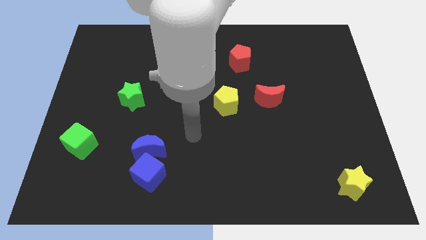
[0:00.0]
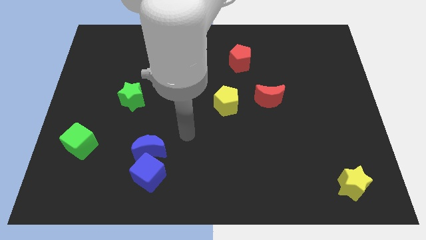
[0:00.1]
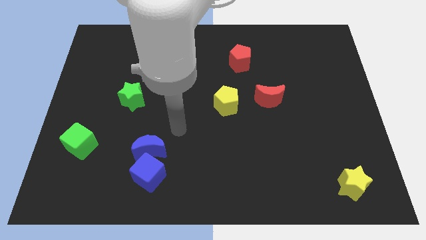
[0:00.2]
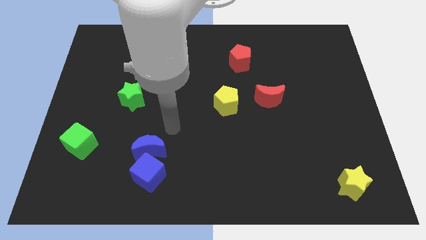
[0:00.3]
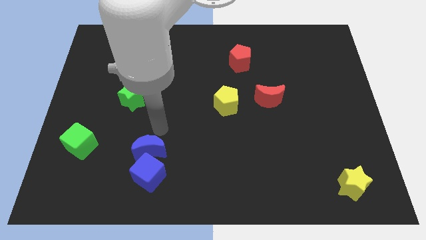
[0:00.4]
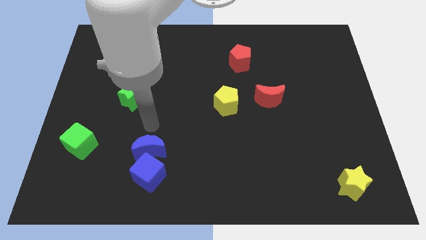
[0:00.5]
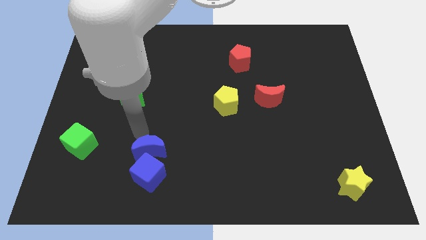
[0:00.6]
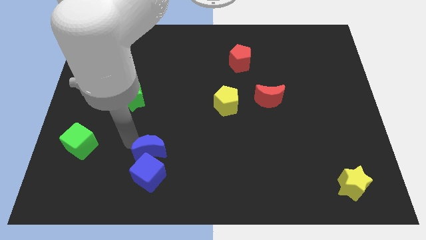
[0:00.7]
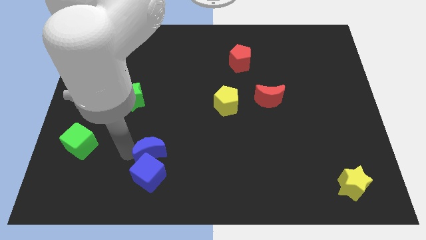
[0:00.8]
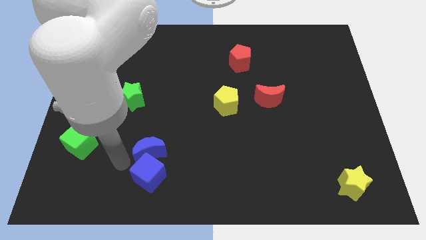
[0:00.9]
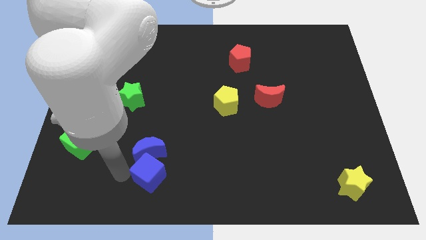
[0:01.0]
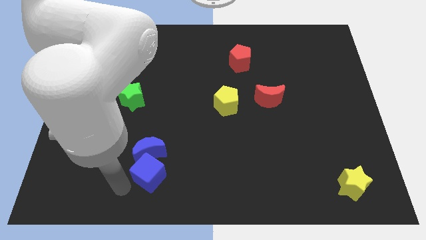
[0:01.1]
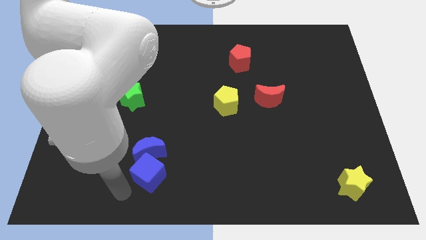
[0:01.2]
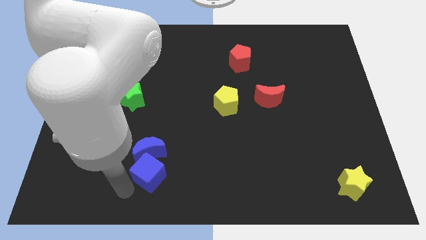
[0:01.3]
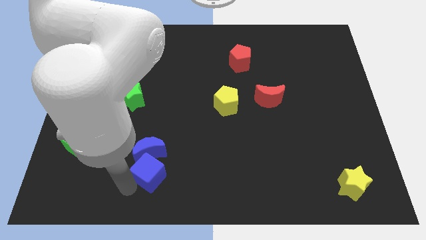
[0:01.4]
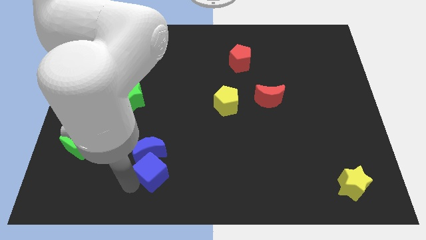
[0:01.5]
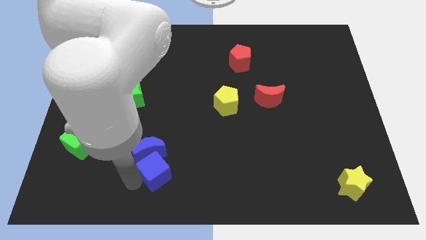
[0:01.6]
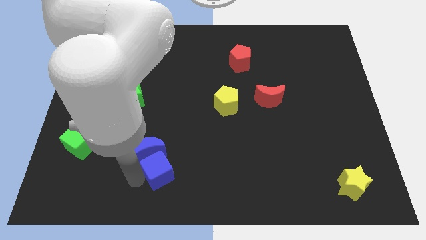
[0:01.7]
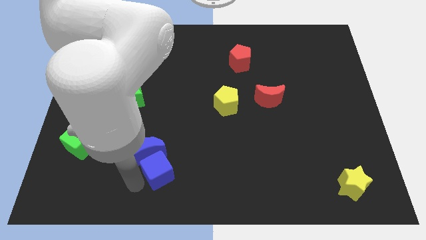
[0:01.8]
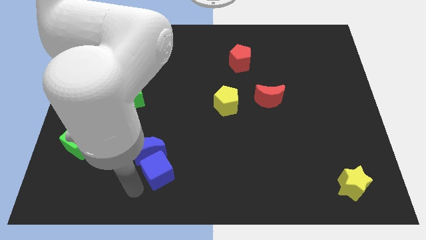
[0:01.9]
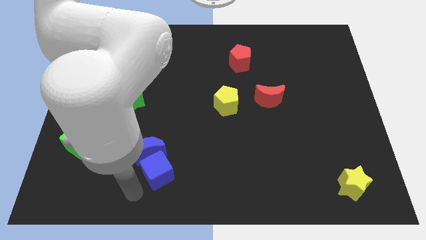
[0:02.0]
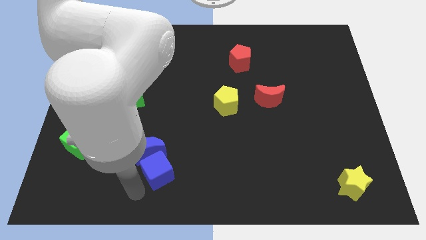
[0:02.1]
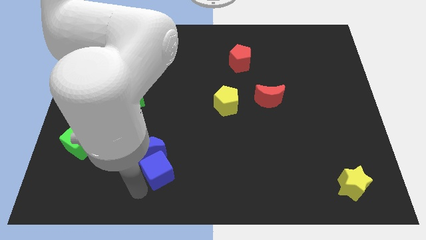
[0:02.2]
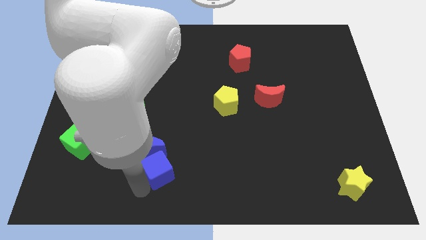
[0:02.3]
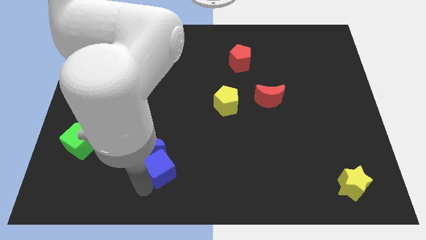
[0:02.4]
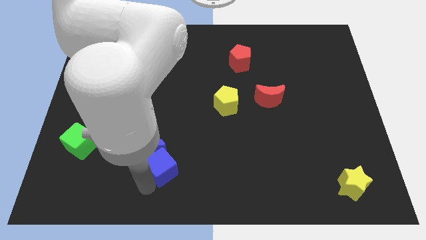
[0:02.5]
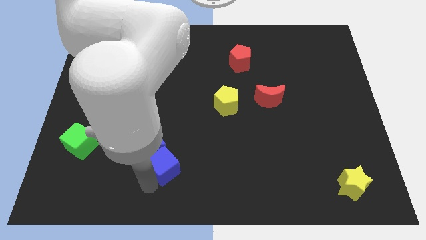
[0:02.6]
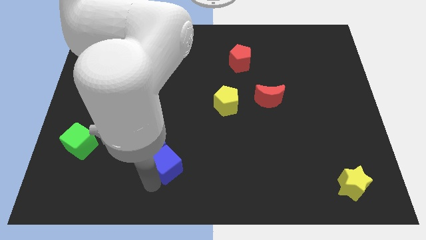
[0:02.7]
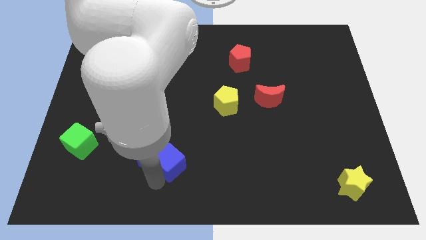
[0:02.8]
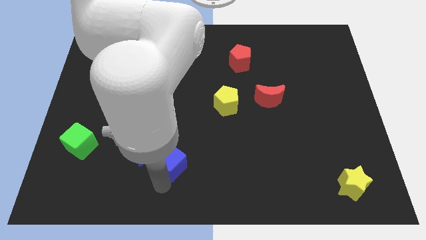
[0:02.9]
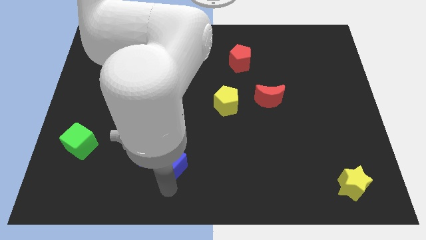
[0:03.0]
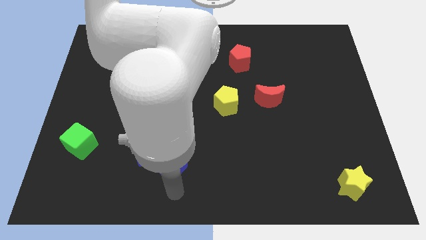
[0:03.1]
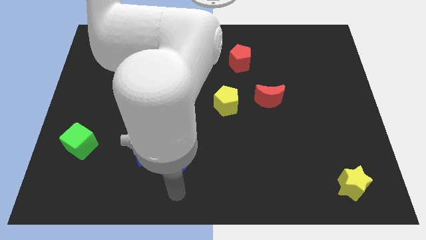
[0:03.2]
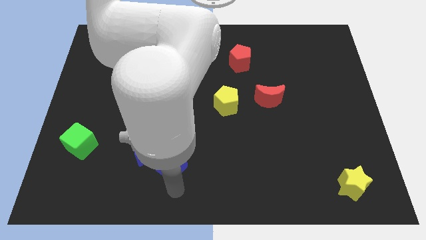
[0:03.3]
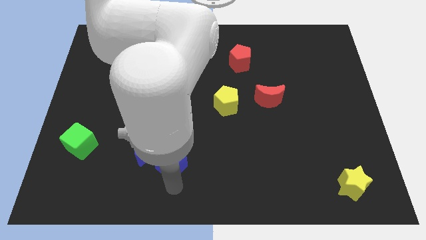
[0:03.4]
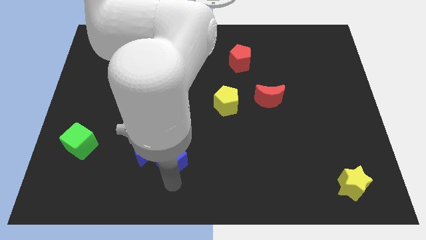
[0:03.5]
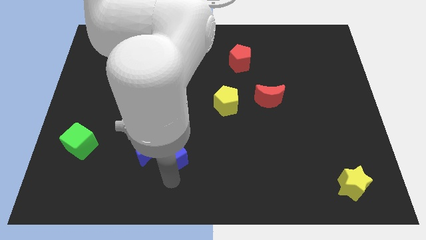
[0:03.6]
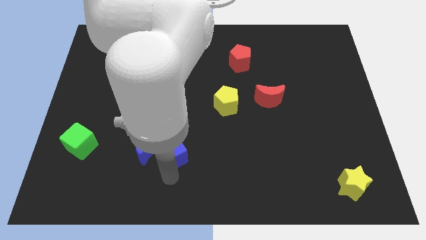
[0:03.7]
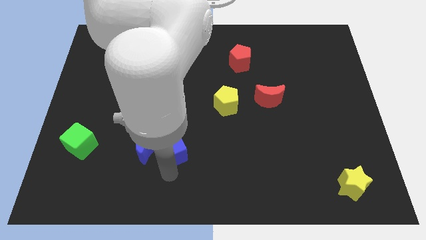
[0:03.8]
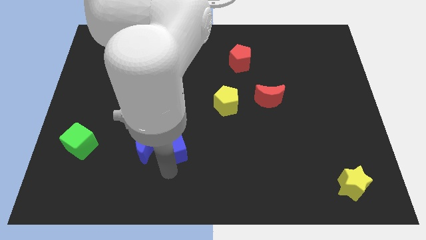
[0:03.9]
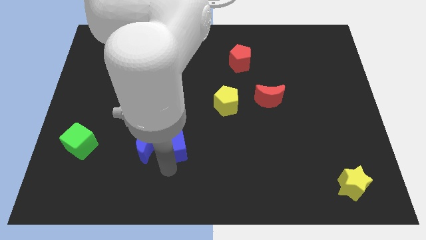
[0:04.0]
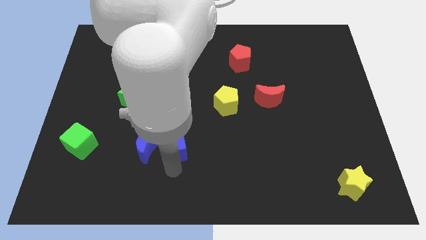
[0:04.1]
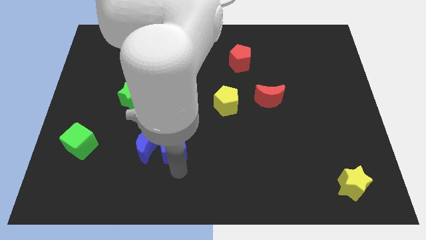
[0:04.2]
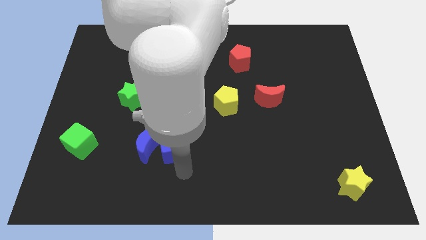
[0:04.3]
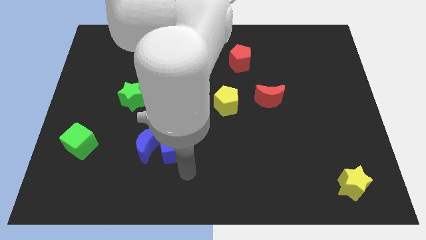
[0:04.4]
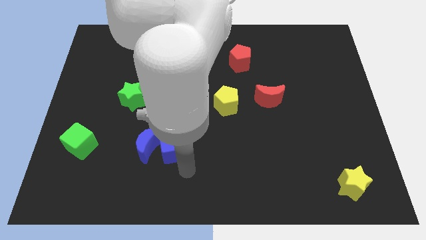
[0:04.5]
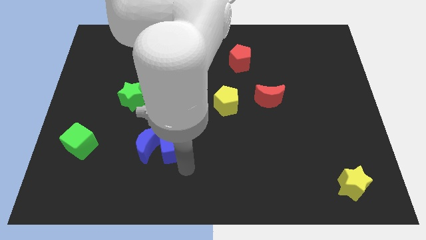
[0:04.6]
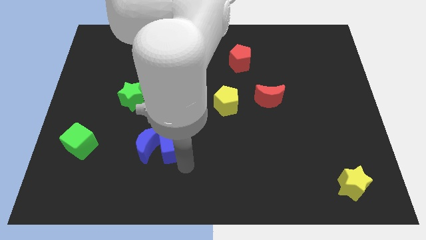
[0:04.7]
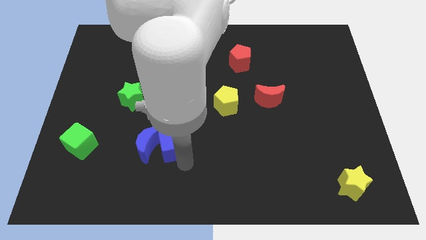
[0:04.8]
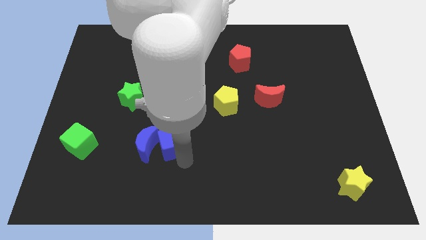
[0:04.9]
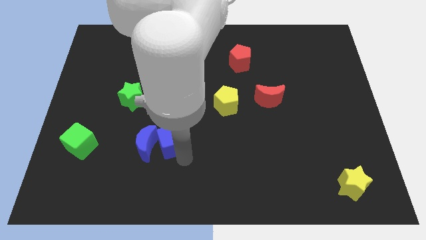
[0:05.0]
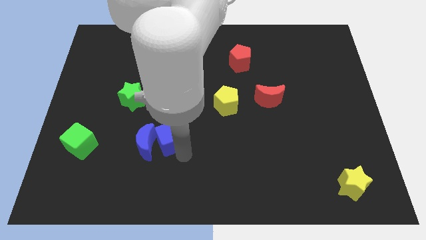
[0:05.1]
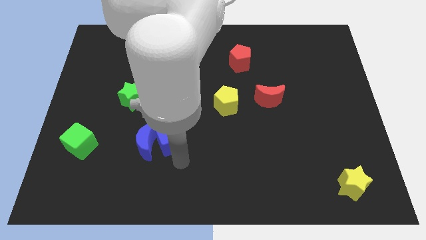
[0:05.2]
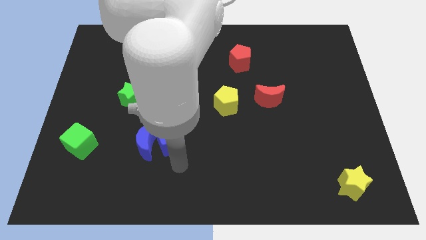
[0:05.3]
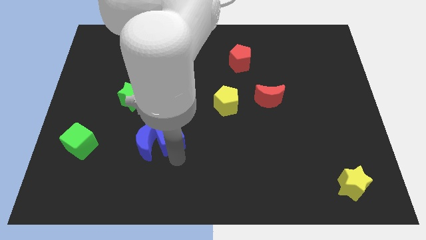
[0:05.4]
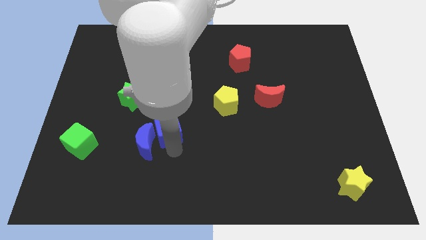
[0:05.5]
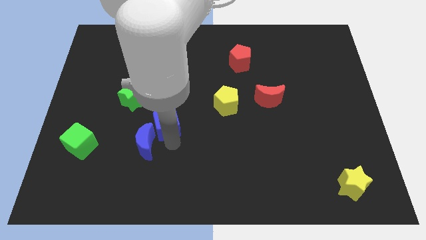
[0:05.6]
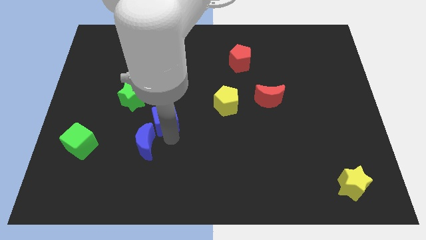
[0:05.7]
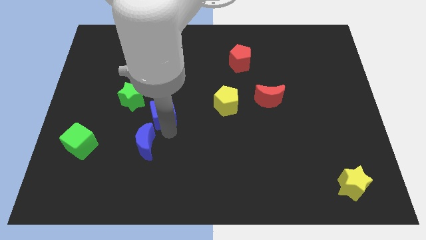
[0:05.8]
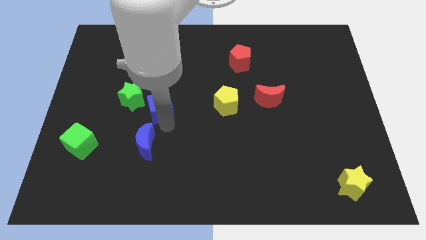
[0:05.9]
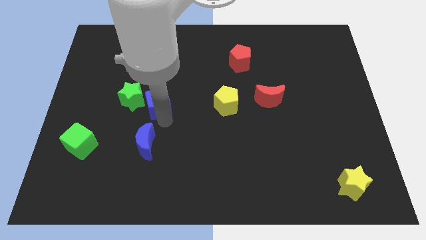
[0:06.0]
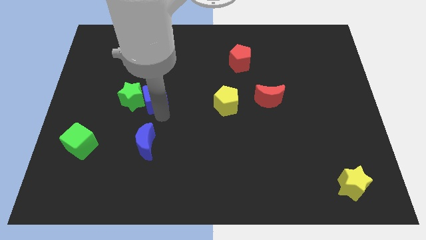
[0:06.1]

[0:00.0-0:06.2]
put the blue cube diagonally up and to the right of the green star

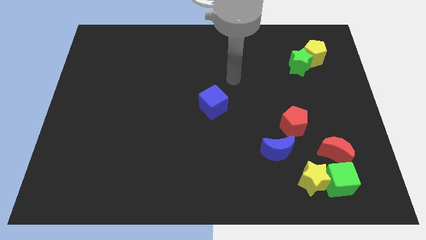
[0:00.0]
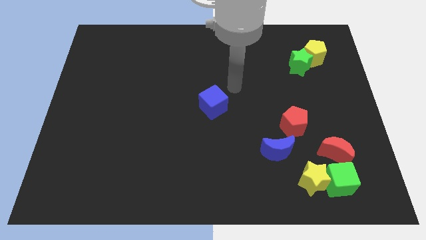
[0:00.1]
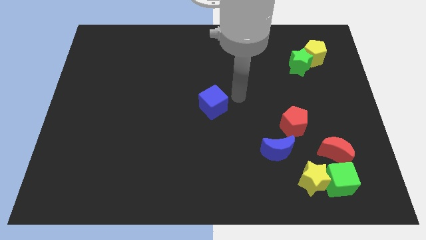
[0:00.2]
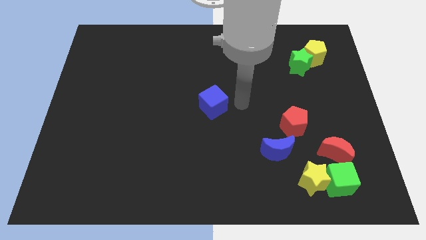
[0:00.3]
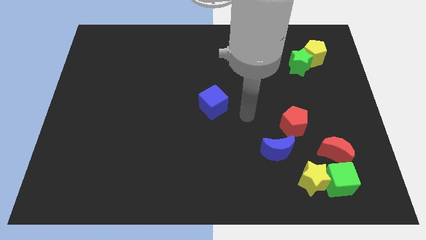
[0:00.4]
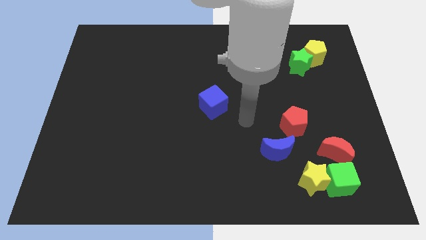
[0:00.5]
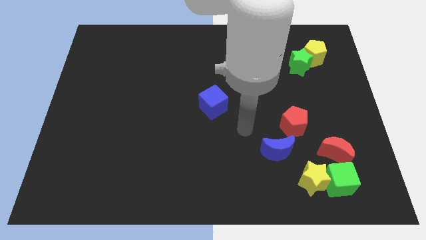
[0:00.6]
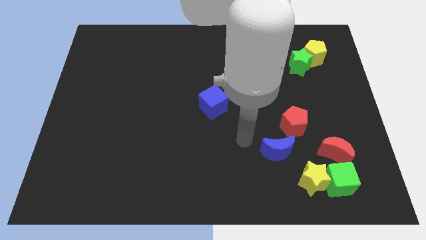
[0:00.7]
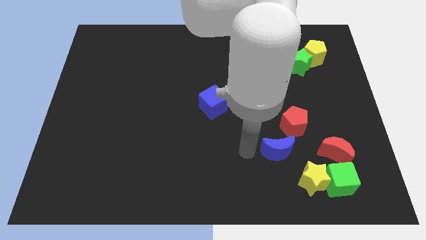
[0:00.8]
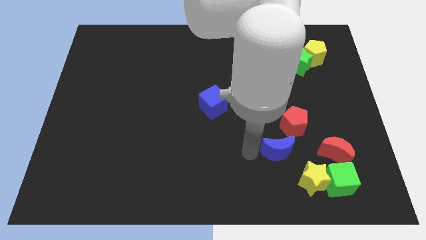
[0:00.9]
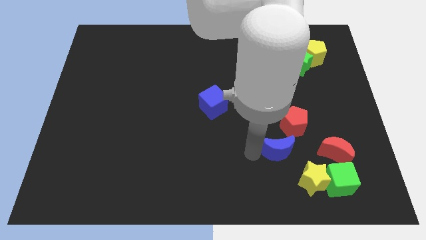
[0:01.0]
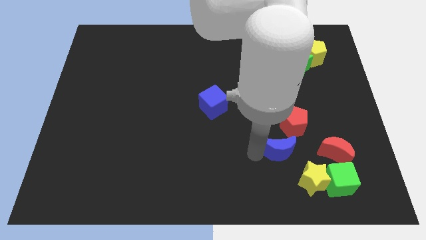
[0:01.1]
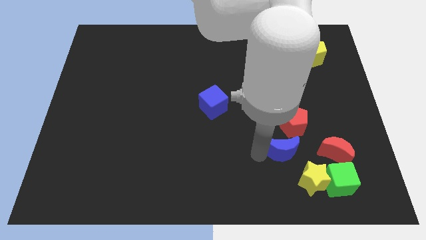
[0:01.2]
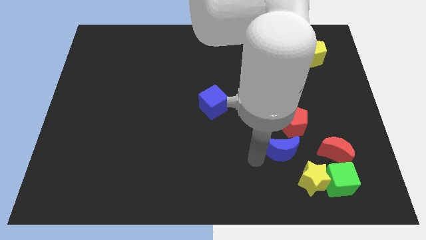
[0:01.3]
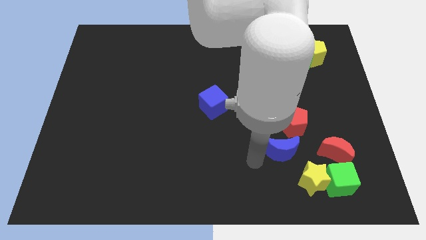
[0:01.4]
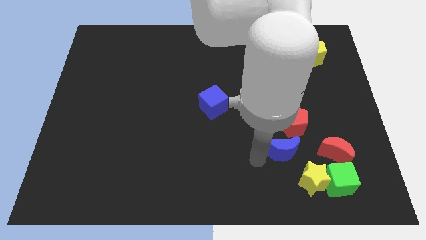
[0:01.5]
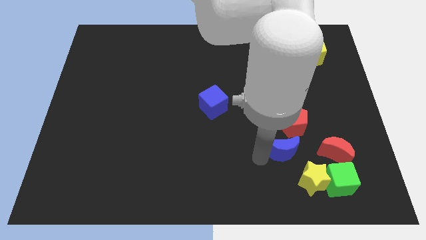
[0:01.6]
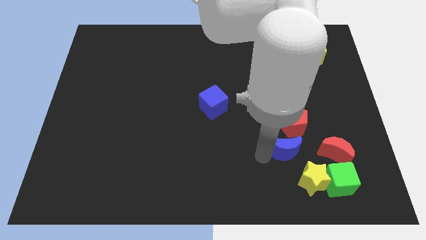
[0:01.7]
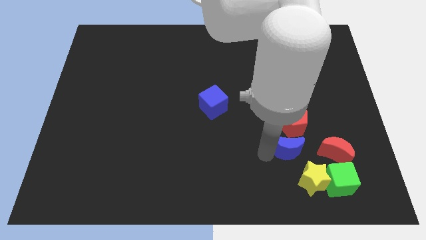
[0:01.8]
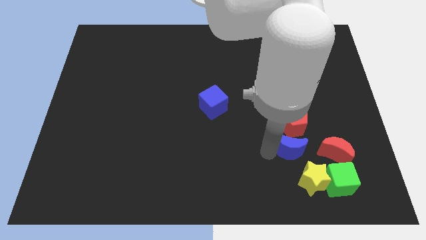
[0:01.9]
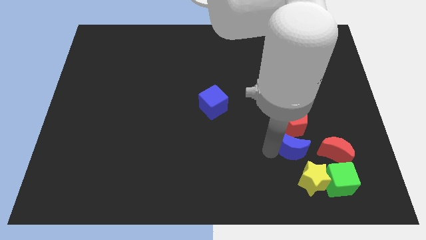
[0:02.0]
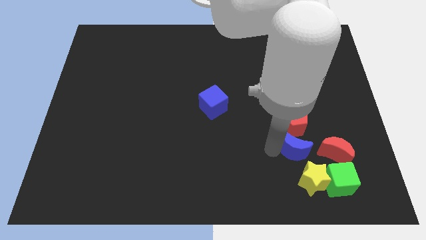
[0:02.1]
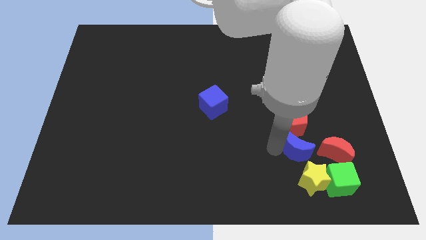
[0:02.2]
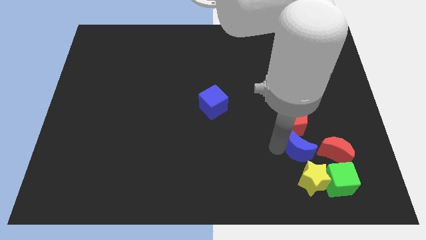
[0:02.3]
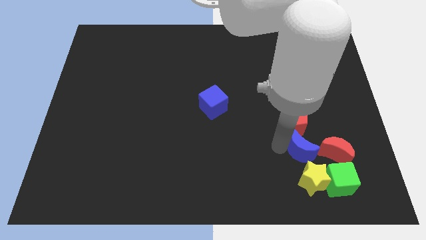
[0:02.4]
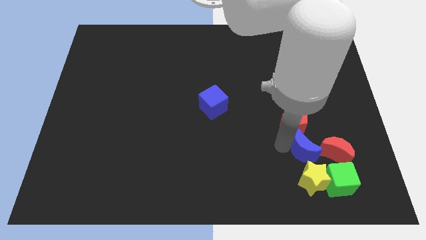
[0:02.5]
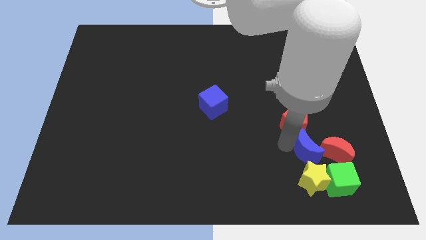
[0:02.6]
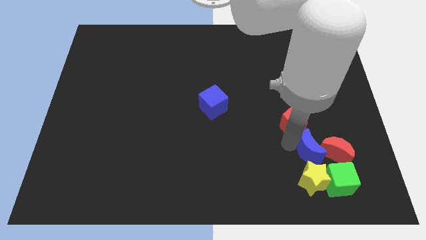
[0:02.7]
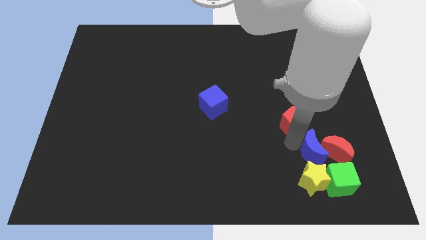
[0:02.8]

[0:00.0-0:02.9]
put the blue moon above the green cube
